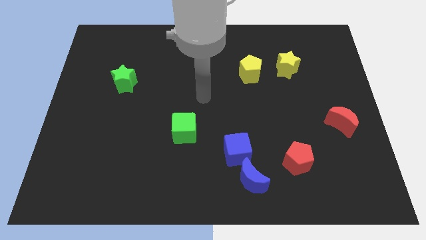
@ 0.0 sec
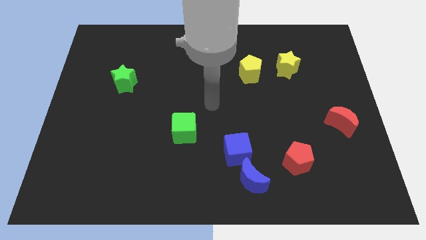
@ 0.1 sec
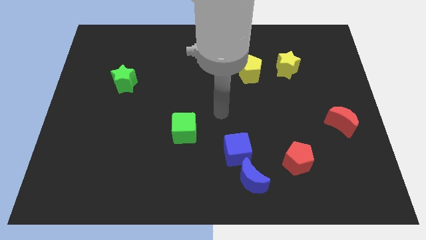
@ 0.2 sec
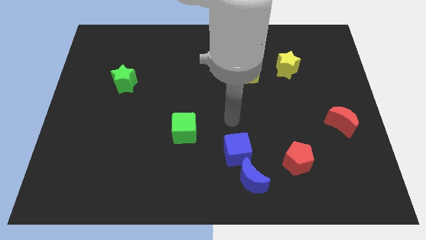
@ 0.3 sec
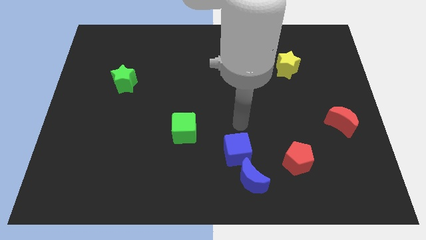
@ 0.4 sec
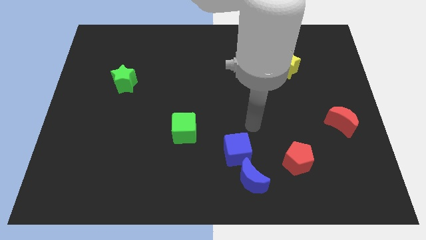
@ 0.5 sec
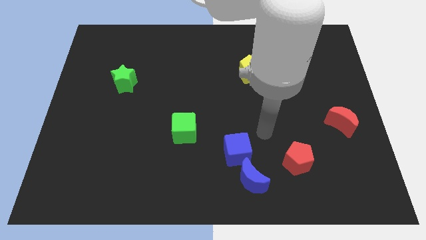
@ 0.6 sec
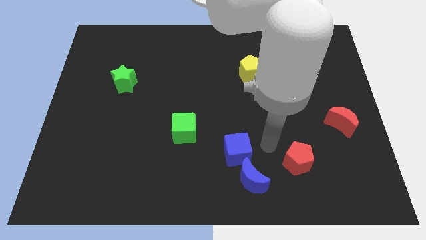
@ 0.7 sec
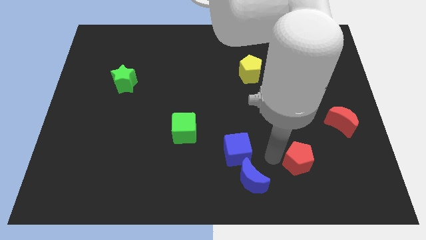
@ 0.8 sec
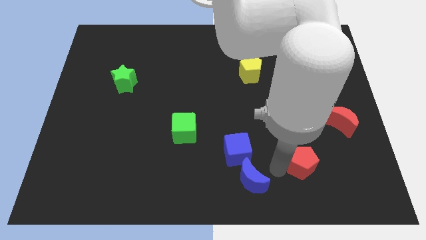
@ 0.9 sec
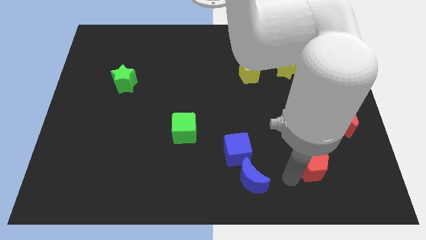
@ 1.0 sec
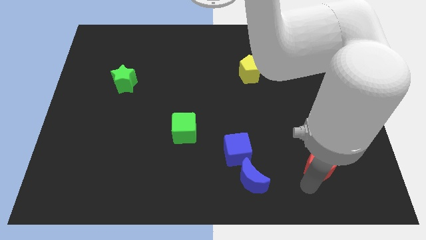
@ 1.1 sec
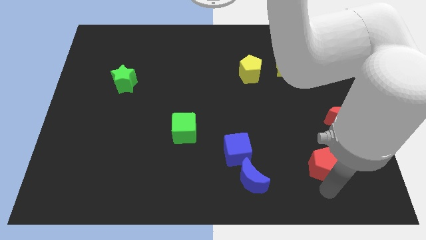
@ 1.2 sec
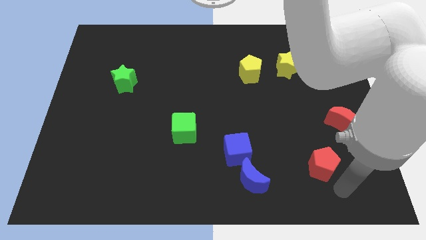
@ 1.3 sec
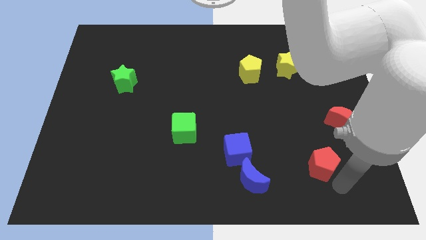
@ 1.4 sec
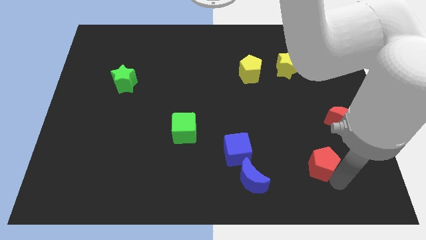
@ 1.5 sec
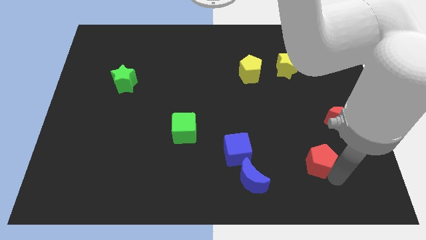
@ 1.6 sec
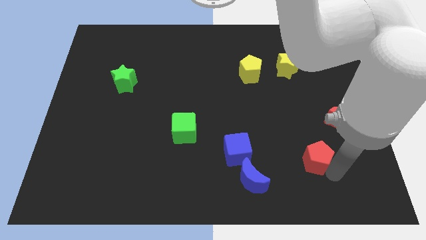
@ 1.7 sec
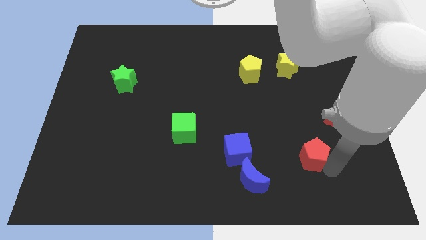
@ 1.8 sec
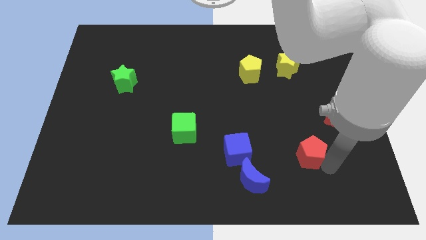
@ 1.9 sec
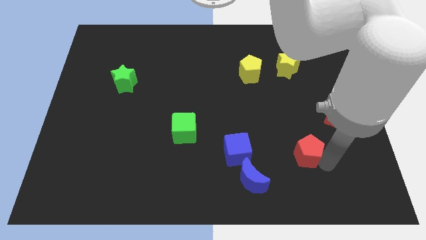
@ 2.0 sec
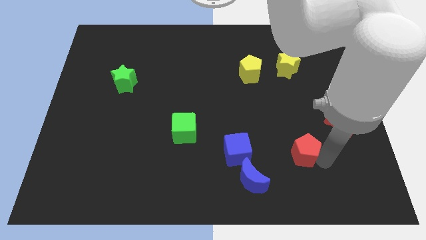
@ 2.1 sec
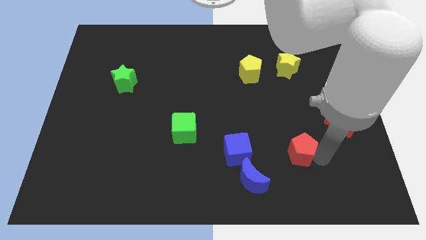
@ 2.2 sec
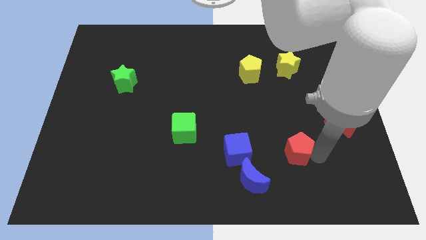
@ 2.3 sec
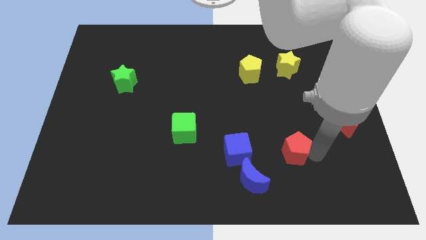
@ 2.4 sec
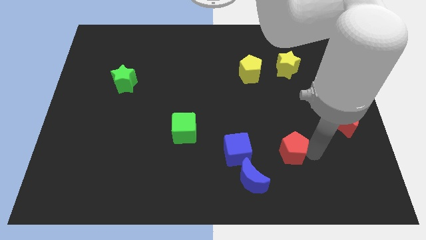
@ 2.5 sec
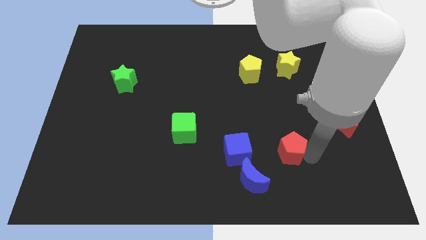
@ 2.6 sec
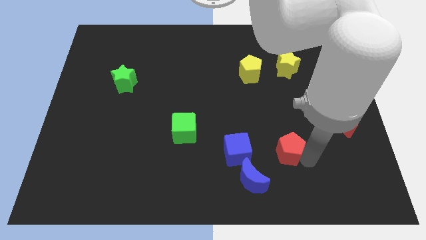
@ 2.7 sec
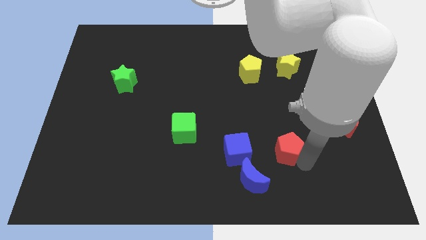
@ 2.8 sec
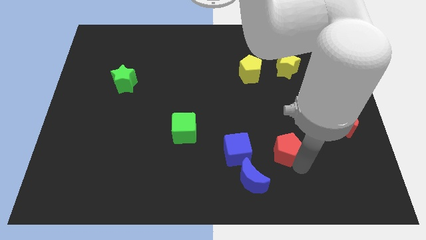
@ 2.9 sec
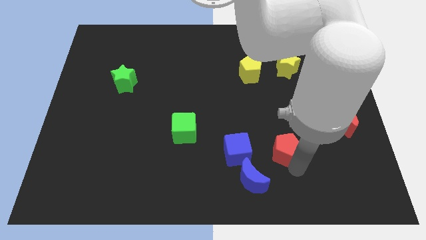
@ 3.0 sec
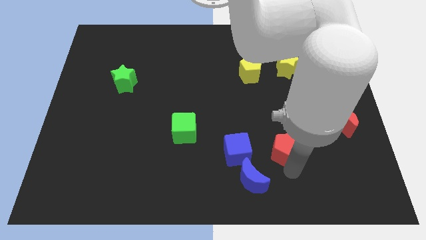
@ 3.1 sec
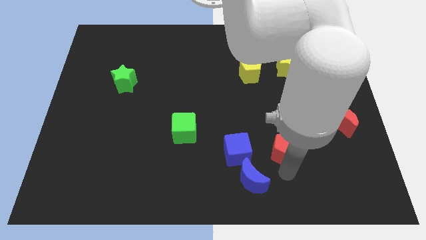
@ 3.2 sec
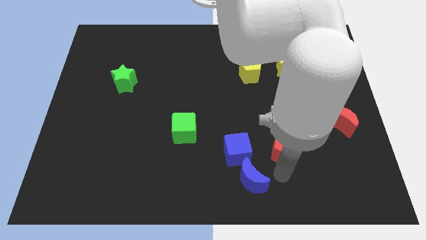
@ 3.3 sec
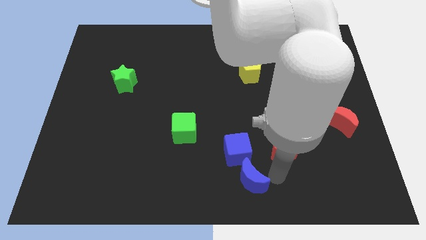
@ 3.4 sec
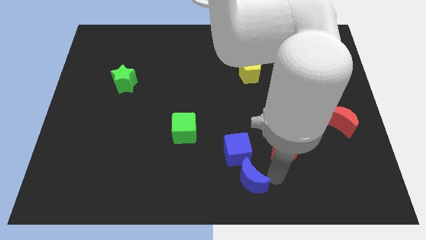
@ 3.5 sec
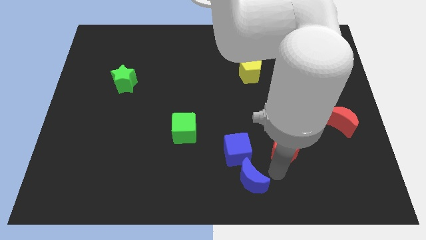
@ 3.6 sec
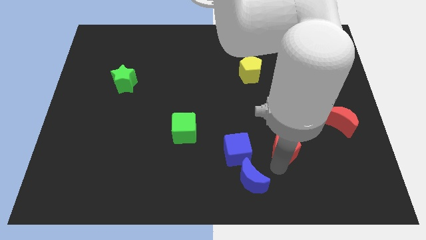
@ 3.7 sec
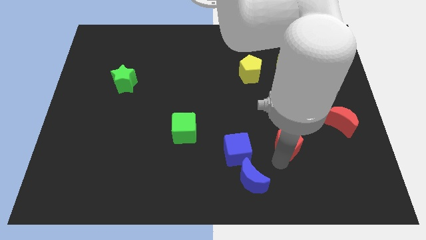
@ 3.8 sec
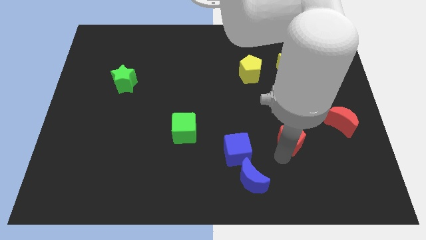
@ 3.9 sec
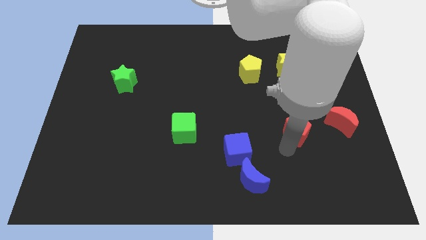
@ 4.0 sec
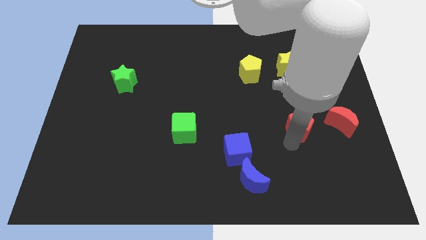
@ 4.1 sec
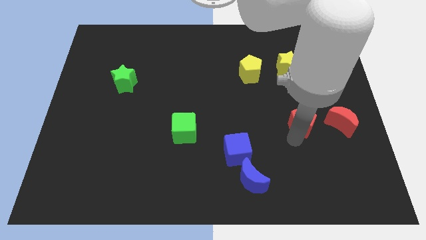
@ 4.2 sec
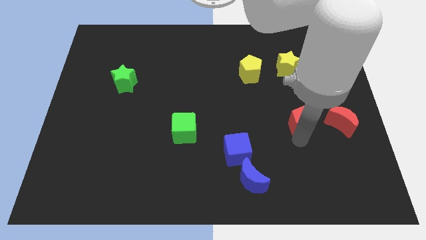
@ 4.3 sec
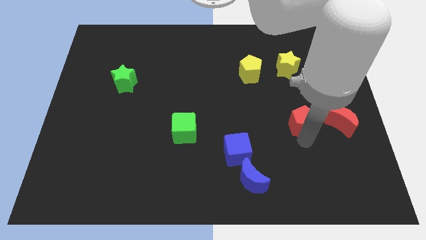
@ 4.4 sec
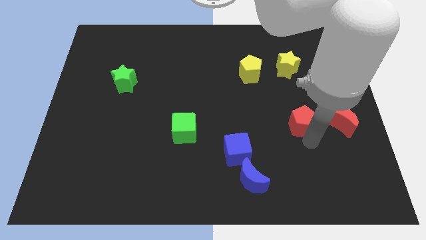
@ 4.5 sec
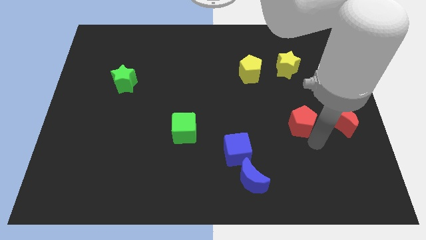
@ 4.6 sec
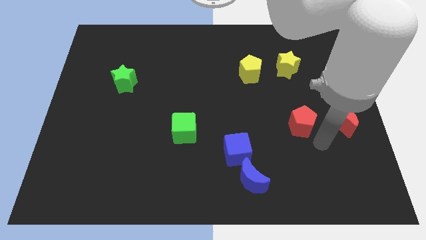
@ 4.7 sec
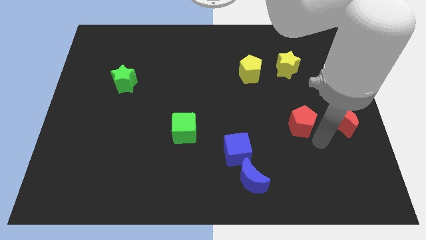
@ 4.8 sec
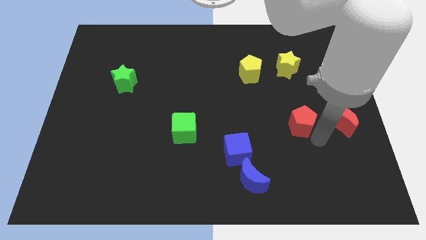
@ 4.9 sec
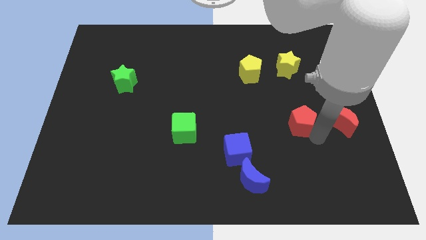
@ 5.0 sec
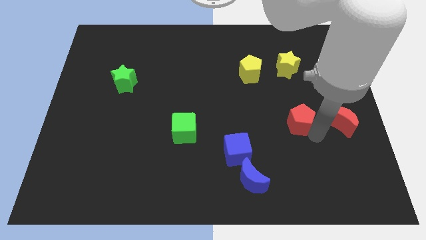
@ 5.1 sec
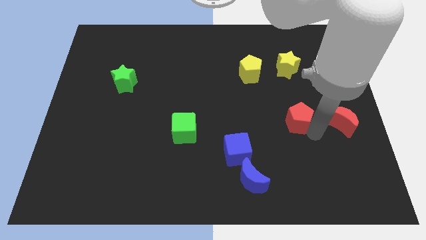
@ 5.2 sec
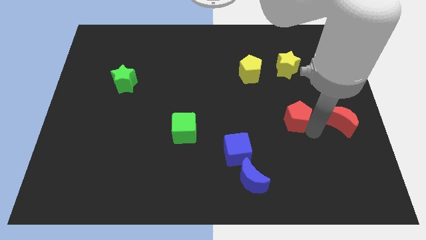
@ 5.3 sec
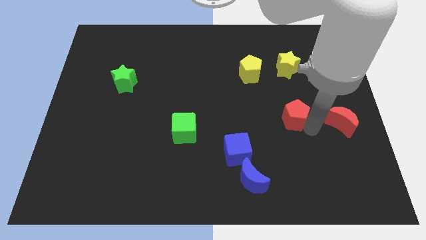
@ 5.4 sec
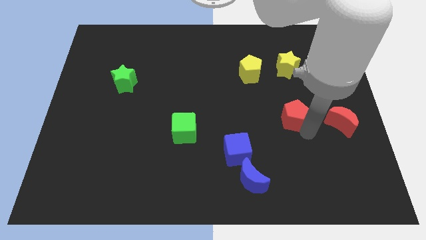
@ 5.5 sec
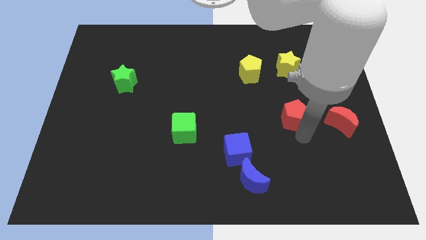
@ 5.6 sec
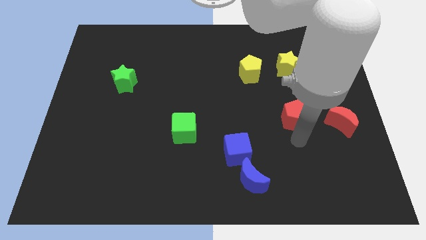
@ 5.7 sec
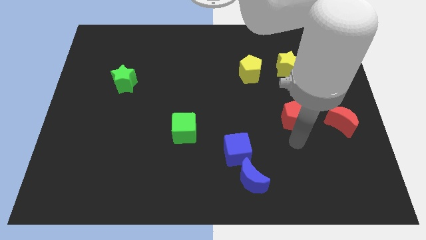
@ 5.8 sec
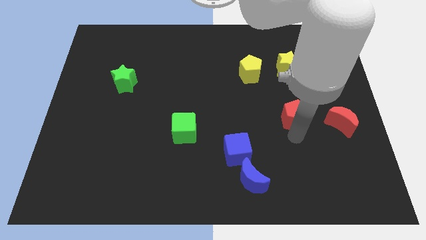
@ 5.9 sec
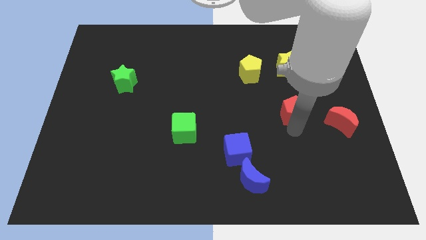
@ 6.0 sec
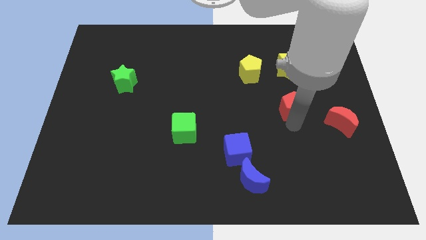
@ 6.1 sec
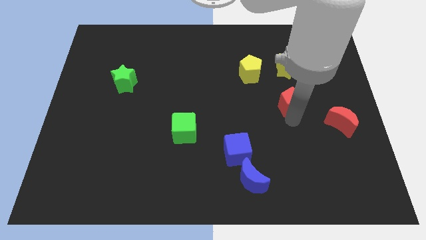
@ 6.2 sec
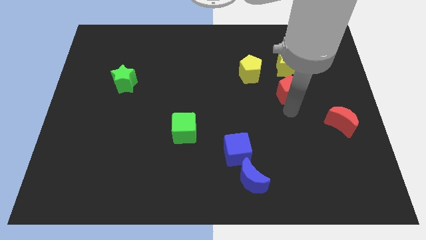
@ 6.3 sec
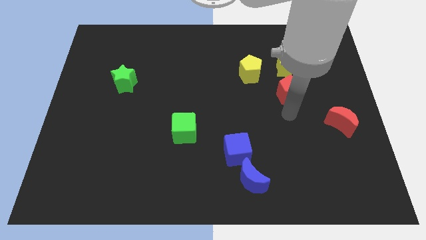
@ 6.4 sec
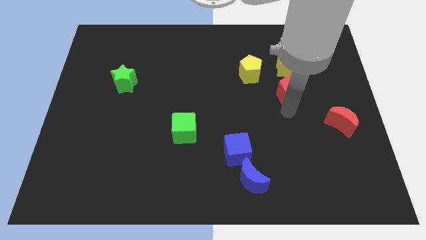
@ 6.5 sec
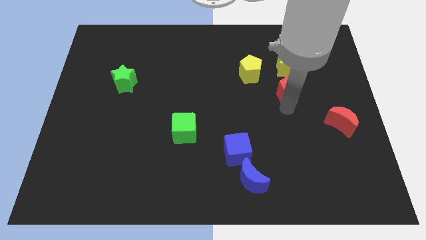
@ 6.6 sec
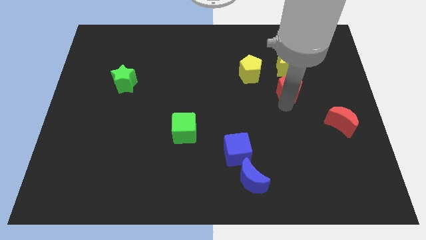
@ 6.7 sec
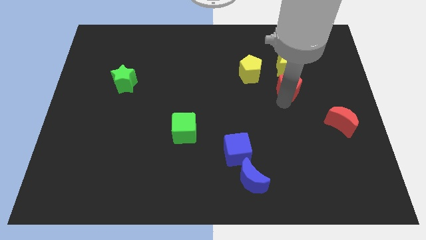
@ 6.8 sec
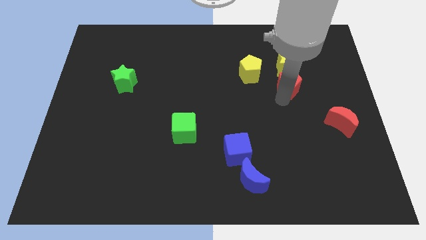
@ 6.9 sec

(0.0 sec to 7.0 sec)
push the red pentagon towards the yellow star

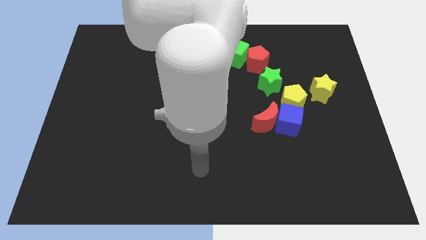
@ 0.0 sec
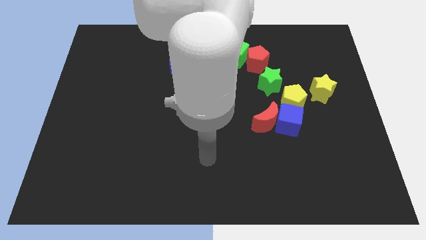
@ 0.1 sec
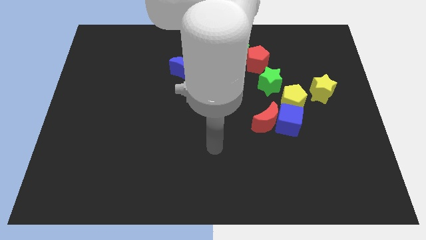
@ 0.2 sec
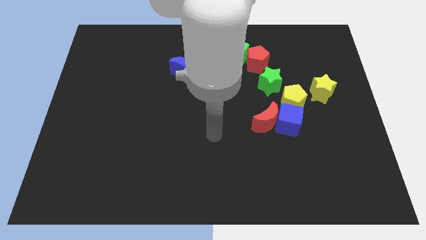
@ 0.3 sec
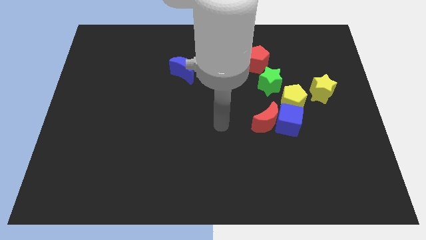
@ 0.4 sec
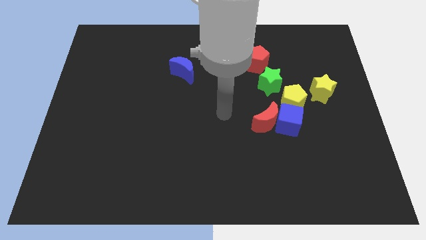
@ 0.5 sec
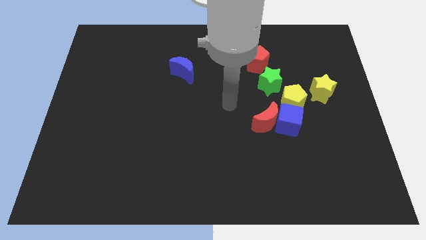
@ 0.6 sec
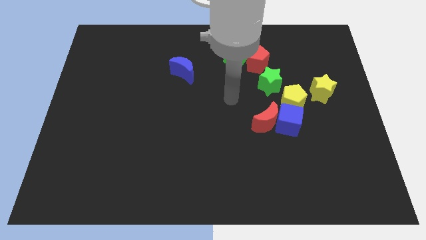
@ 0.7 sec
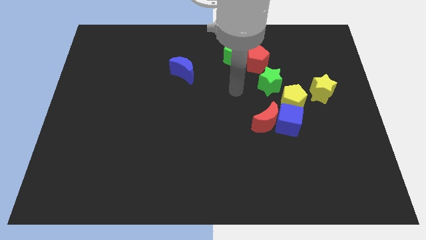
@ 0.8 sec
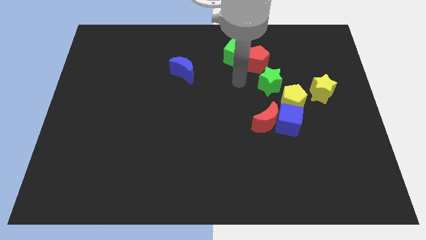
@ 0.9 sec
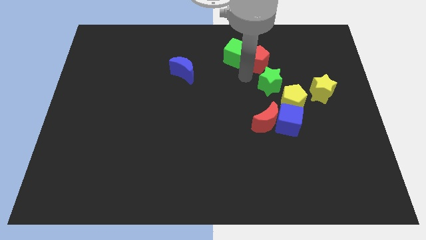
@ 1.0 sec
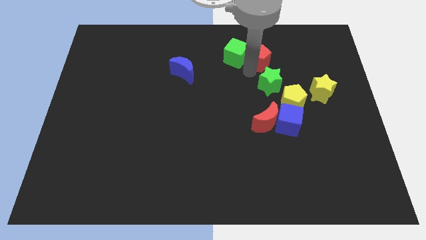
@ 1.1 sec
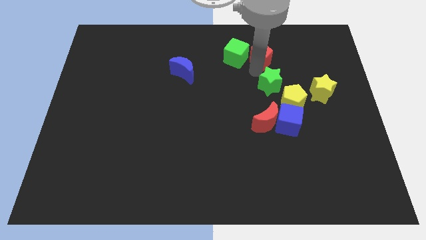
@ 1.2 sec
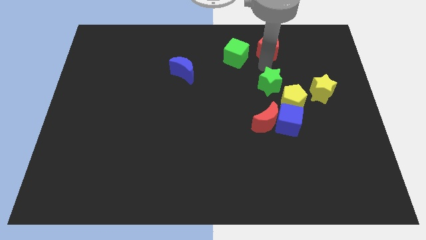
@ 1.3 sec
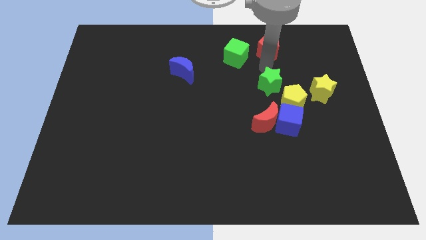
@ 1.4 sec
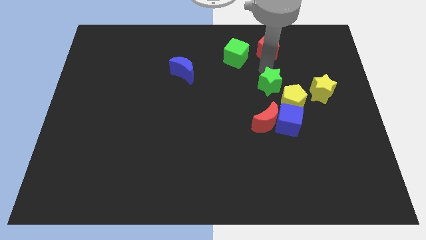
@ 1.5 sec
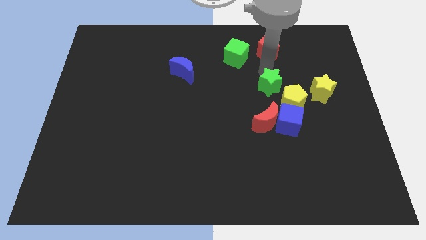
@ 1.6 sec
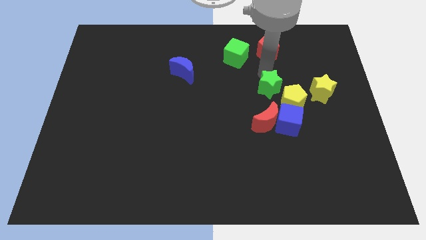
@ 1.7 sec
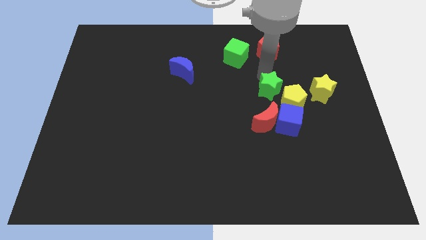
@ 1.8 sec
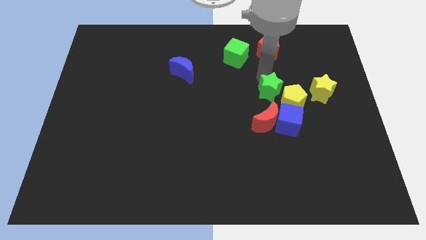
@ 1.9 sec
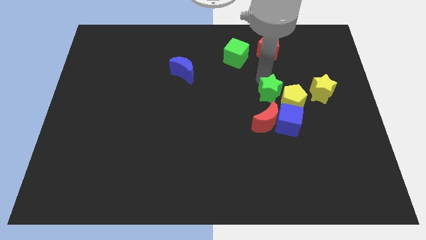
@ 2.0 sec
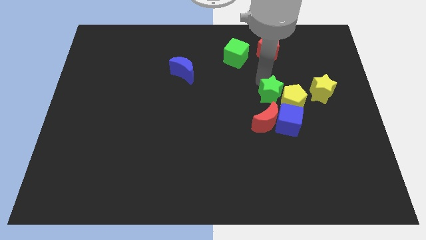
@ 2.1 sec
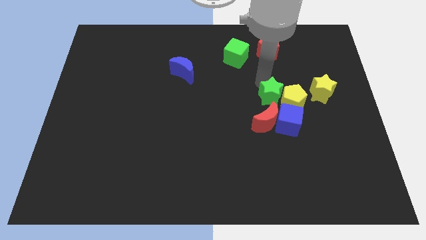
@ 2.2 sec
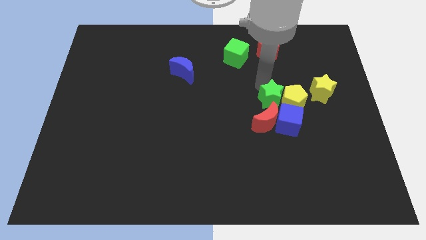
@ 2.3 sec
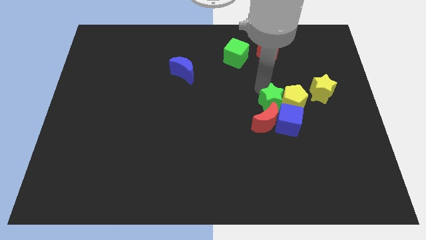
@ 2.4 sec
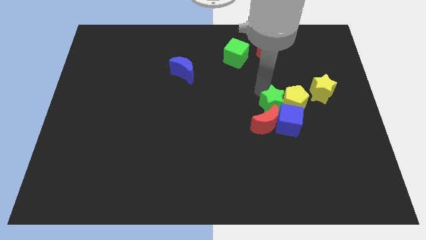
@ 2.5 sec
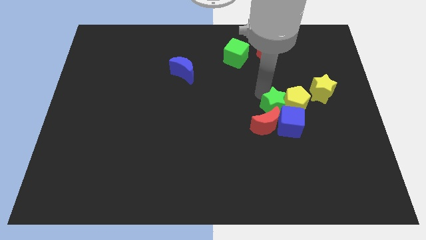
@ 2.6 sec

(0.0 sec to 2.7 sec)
slide the green star next to the blue cube
